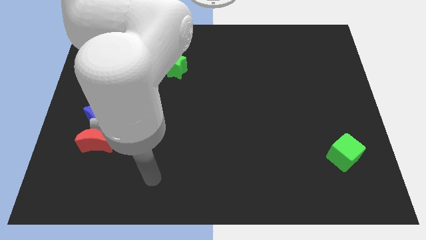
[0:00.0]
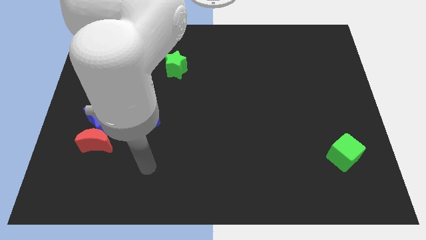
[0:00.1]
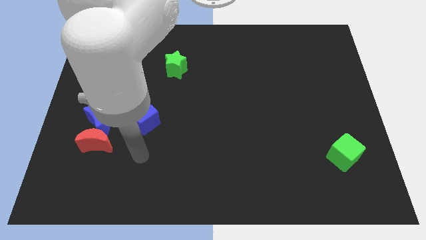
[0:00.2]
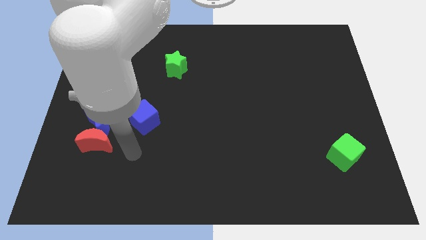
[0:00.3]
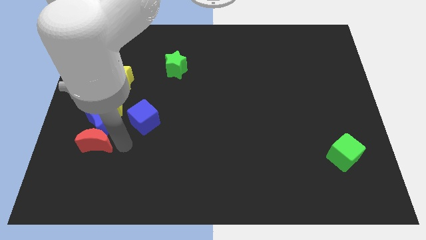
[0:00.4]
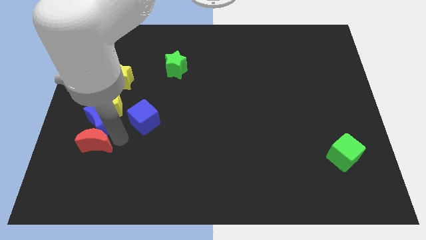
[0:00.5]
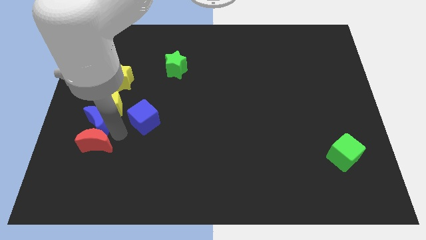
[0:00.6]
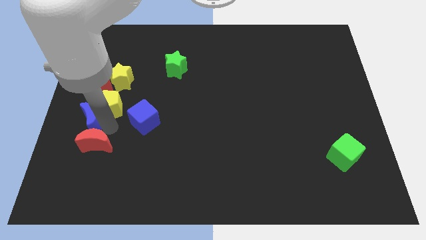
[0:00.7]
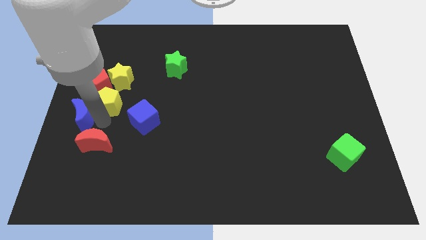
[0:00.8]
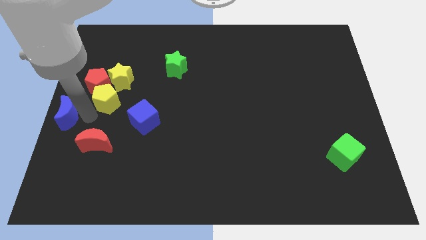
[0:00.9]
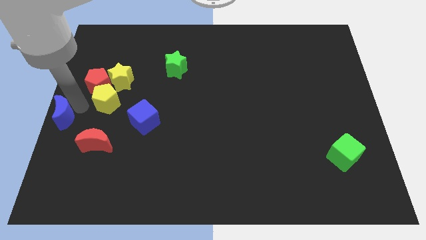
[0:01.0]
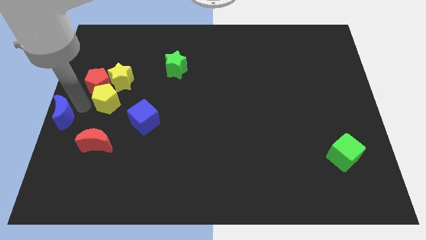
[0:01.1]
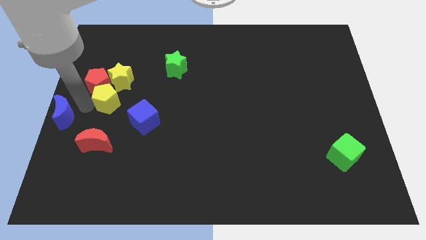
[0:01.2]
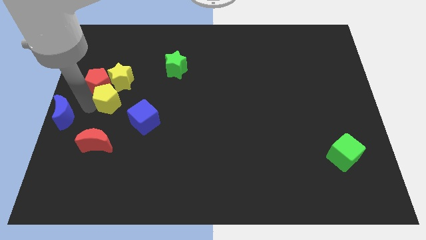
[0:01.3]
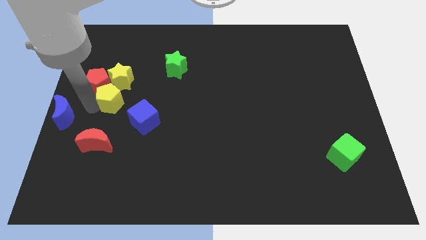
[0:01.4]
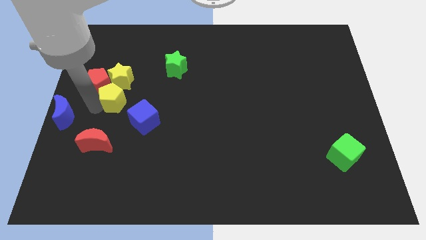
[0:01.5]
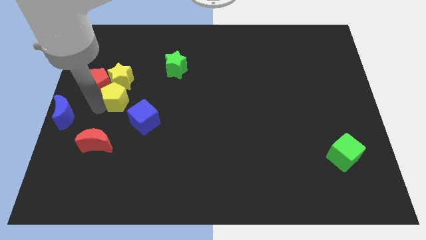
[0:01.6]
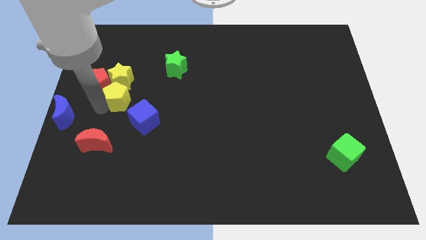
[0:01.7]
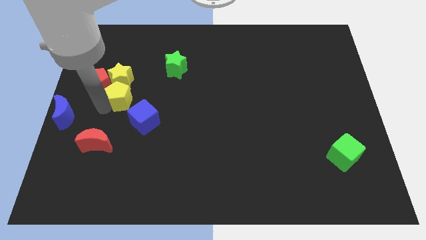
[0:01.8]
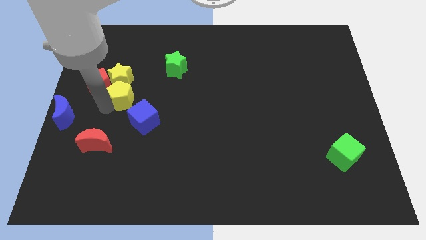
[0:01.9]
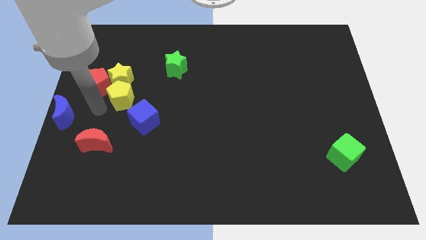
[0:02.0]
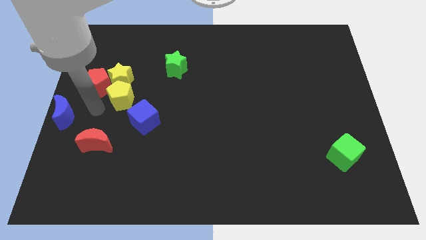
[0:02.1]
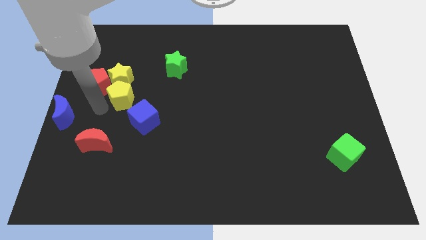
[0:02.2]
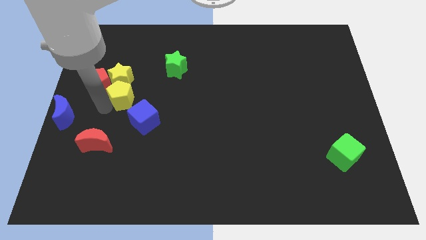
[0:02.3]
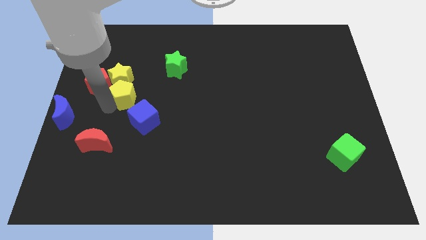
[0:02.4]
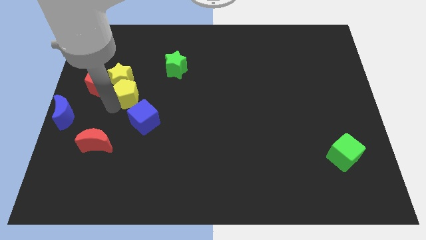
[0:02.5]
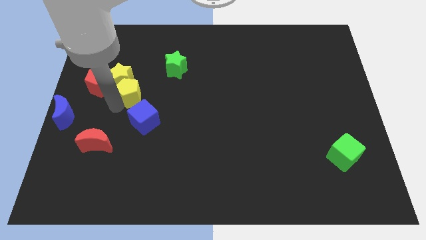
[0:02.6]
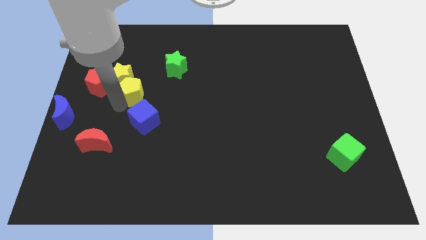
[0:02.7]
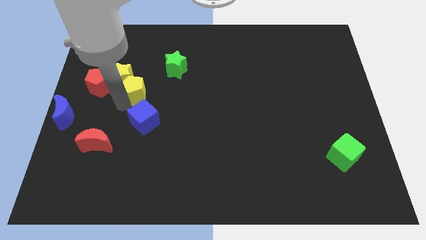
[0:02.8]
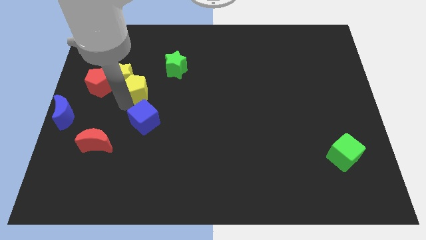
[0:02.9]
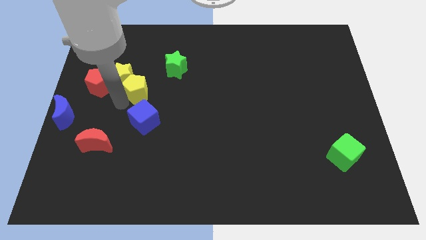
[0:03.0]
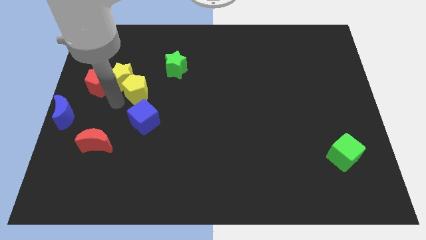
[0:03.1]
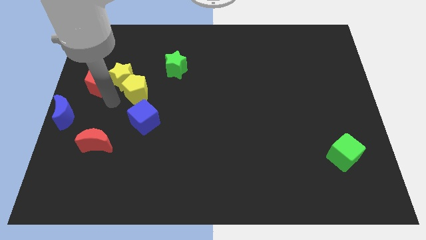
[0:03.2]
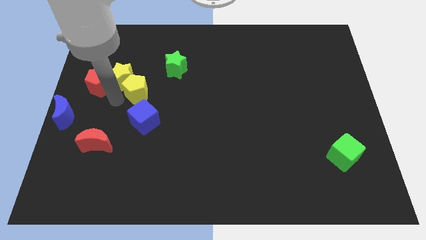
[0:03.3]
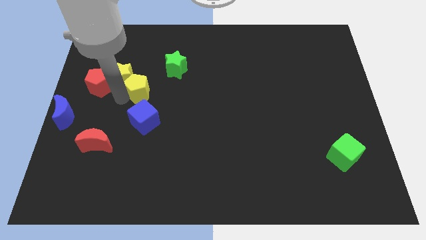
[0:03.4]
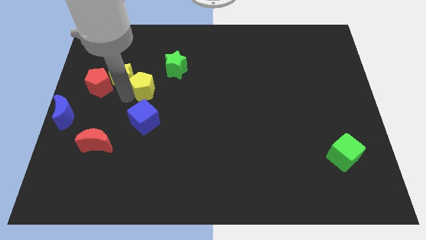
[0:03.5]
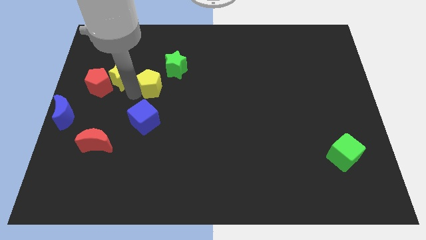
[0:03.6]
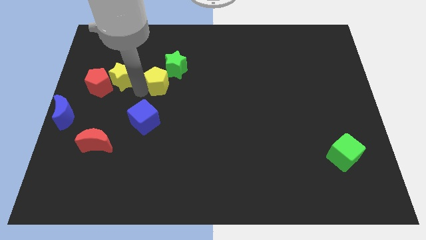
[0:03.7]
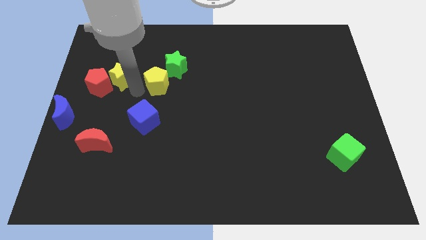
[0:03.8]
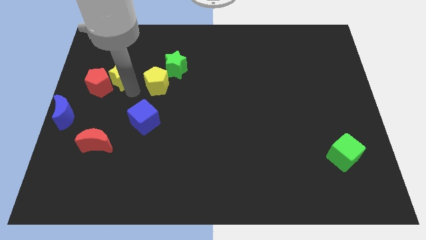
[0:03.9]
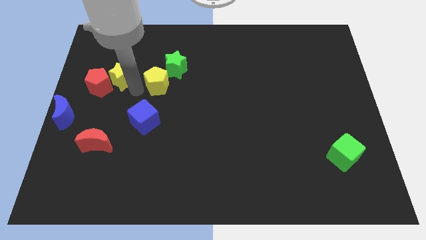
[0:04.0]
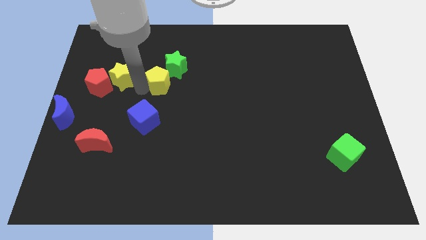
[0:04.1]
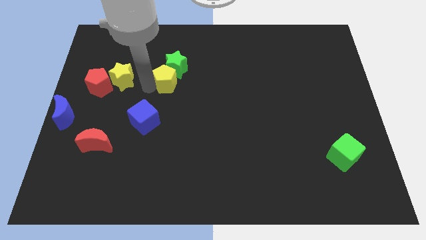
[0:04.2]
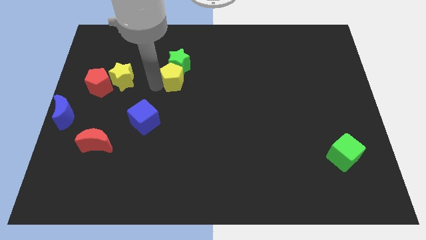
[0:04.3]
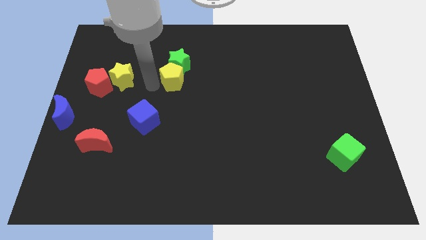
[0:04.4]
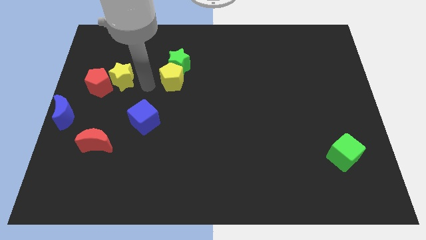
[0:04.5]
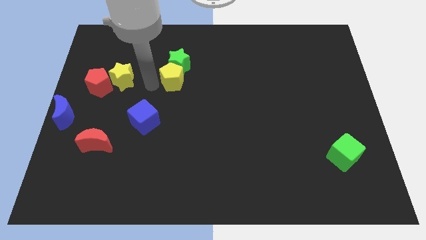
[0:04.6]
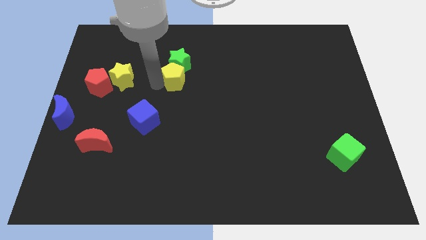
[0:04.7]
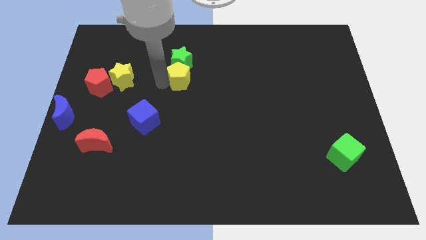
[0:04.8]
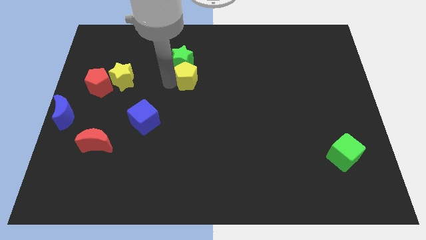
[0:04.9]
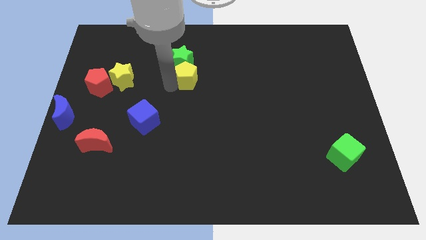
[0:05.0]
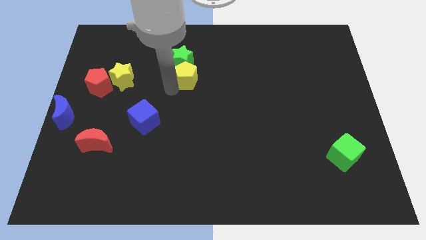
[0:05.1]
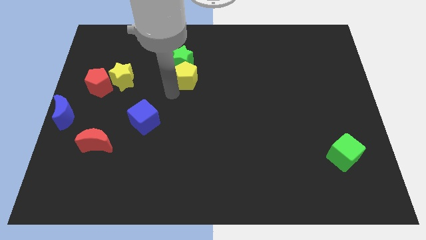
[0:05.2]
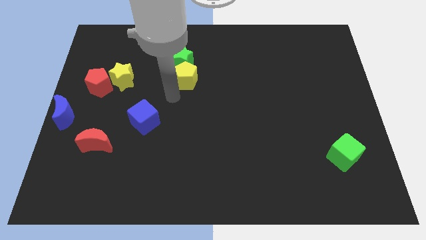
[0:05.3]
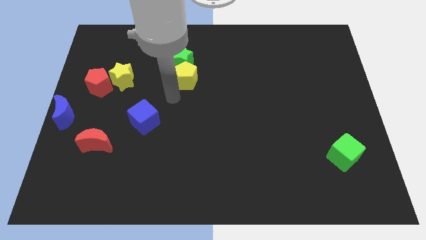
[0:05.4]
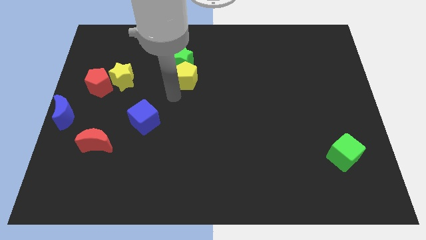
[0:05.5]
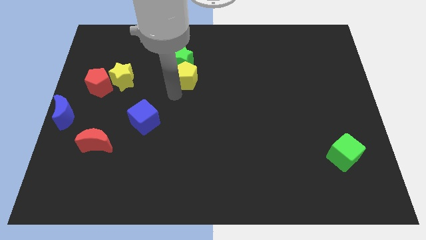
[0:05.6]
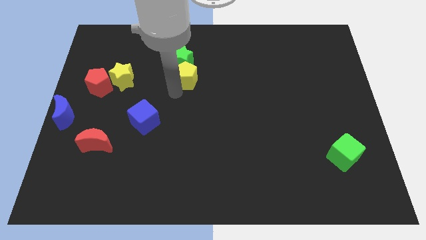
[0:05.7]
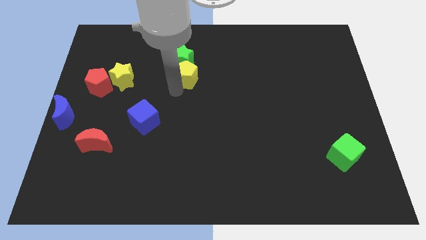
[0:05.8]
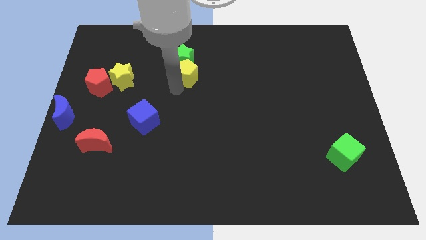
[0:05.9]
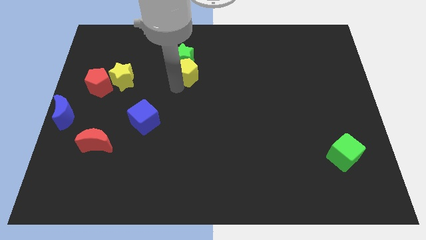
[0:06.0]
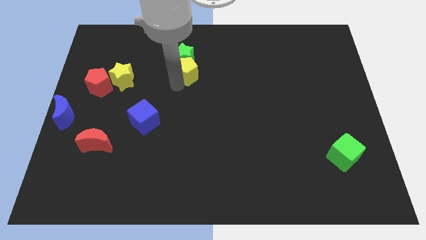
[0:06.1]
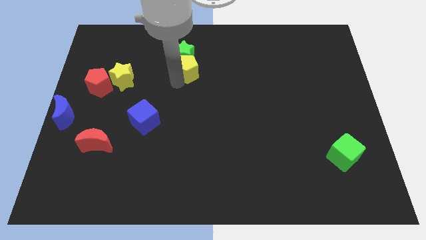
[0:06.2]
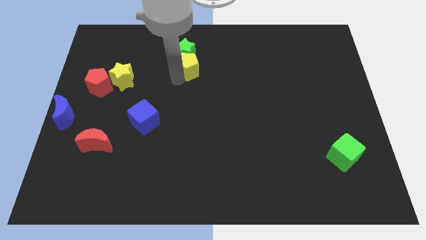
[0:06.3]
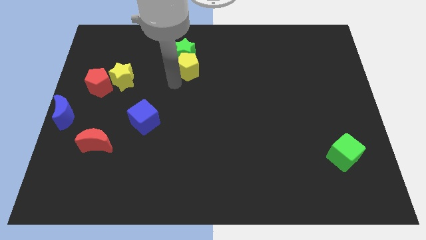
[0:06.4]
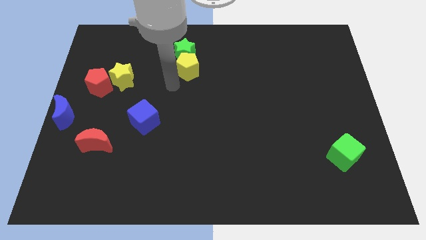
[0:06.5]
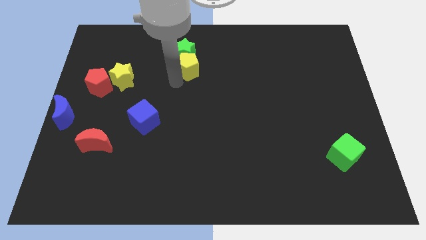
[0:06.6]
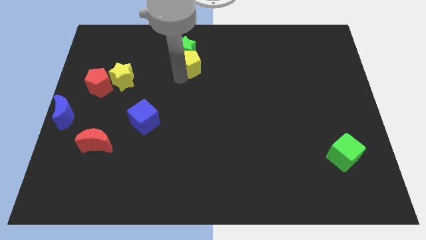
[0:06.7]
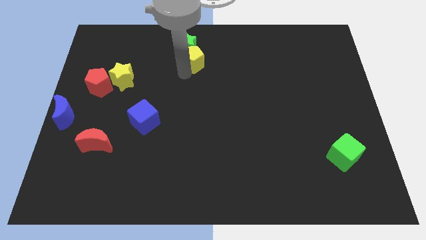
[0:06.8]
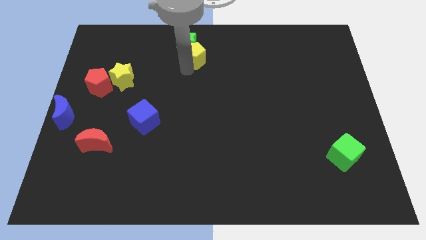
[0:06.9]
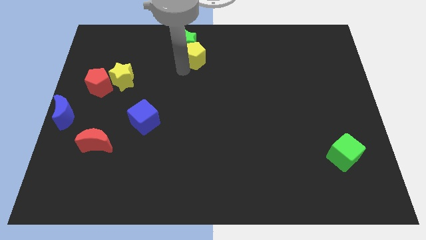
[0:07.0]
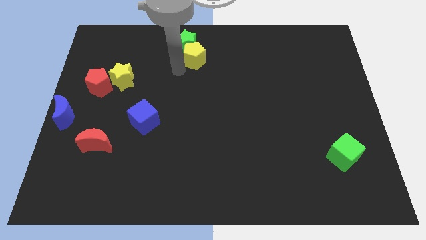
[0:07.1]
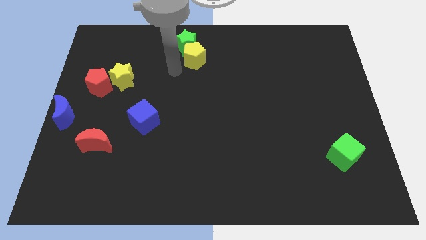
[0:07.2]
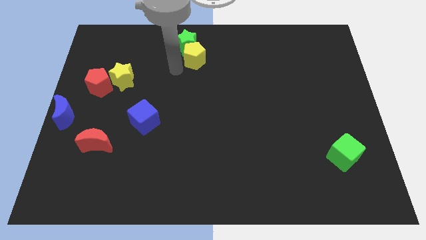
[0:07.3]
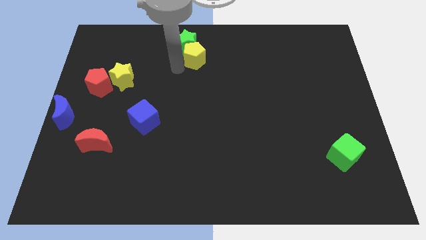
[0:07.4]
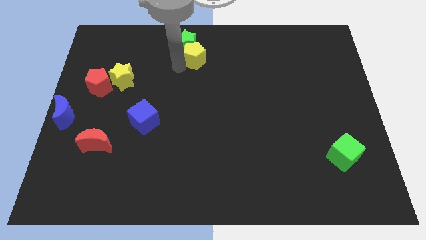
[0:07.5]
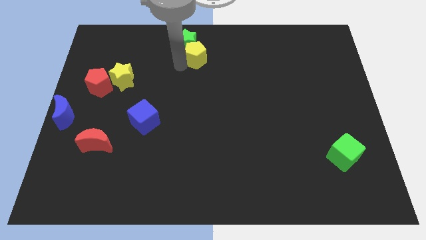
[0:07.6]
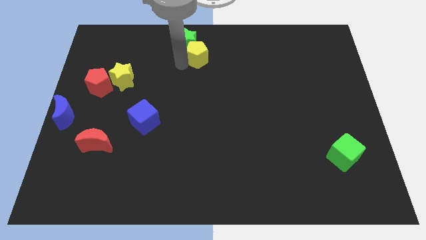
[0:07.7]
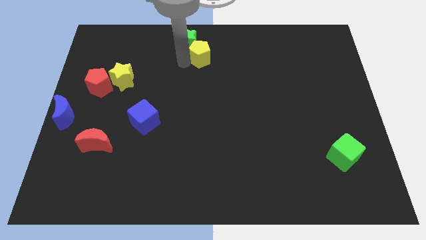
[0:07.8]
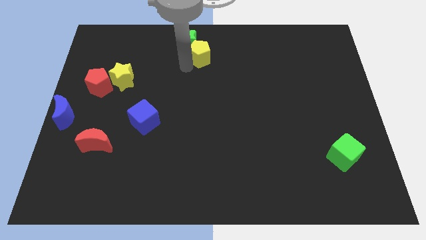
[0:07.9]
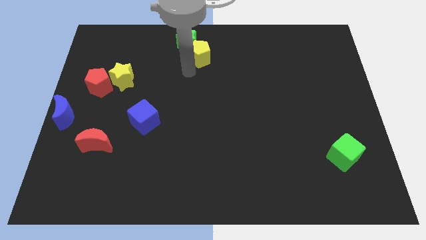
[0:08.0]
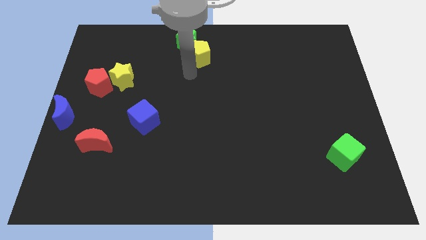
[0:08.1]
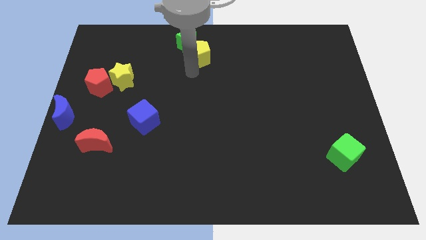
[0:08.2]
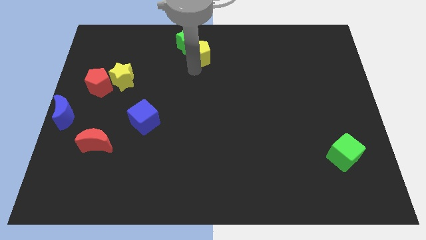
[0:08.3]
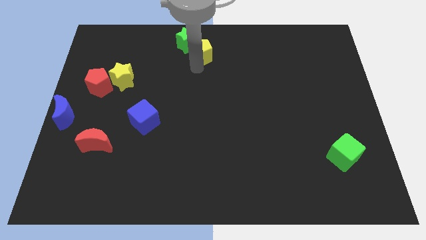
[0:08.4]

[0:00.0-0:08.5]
put the yellow pentagon to the top
